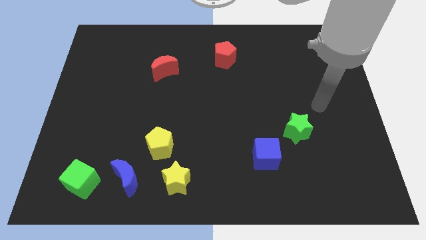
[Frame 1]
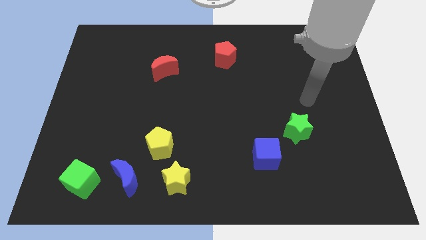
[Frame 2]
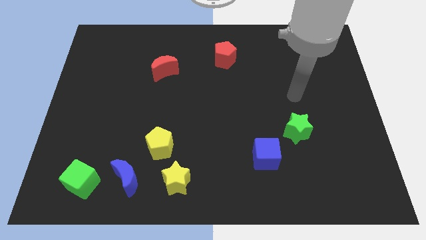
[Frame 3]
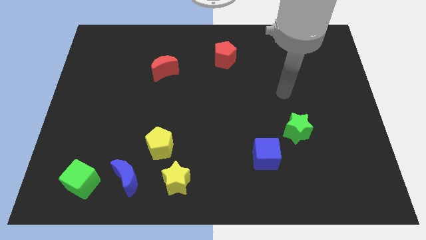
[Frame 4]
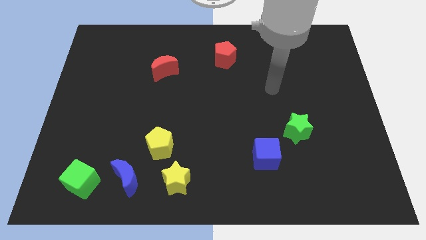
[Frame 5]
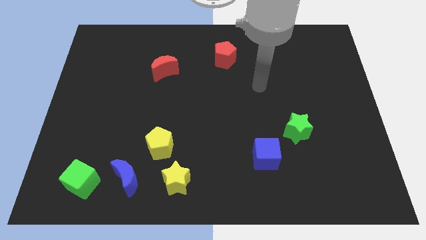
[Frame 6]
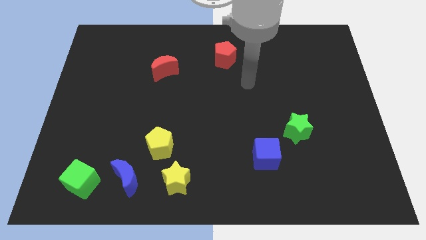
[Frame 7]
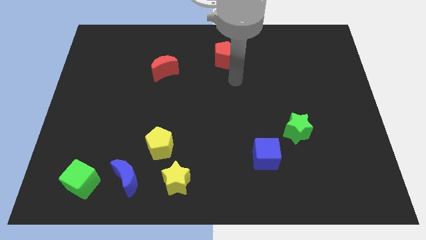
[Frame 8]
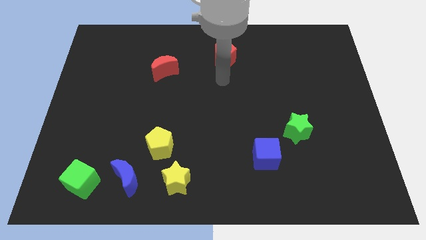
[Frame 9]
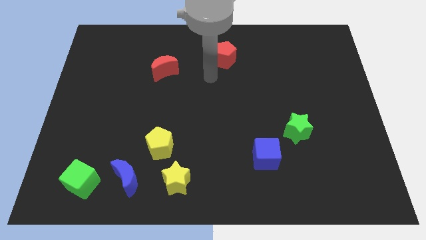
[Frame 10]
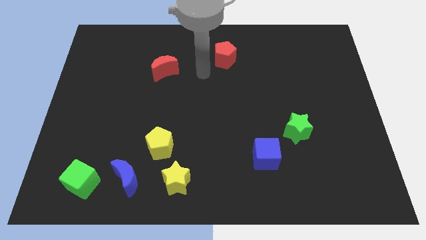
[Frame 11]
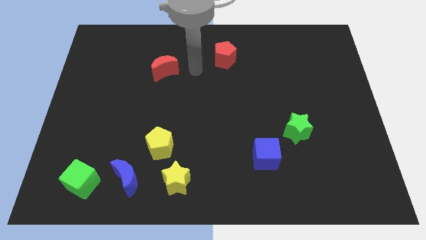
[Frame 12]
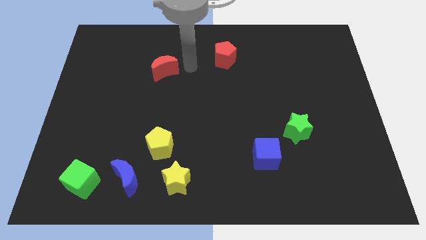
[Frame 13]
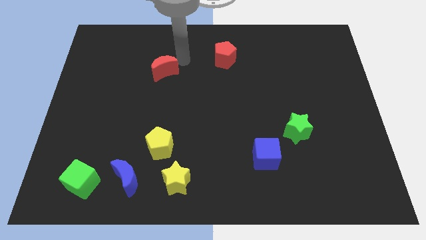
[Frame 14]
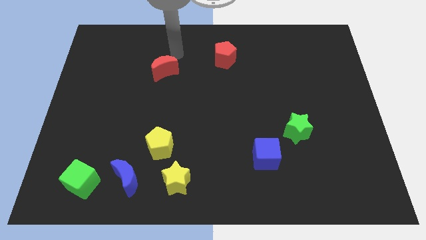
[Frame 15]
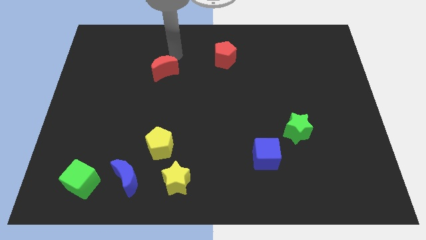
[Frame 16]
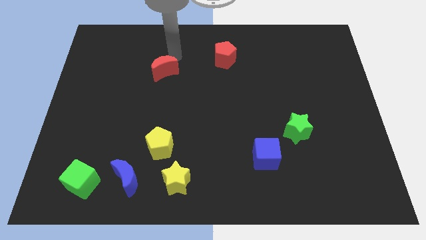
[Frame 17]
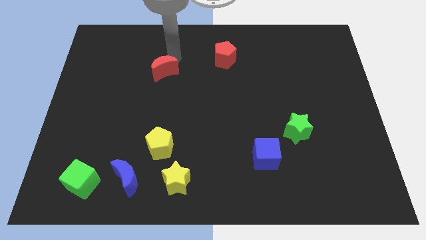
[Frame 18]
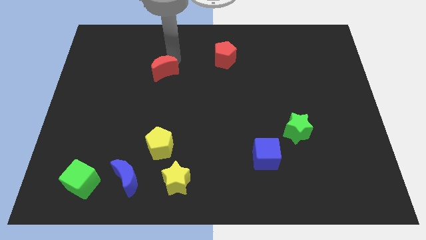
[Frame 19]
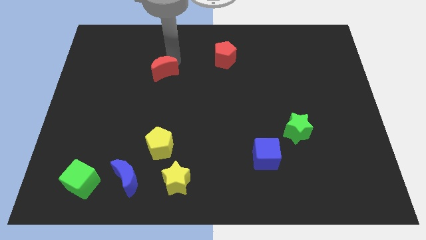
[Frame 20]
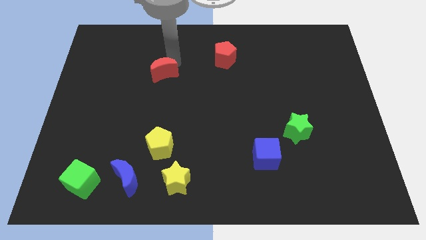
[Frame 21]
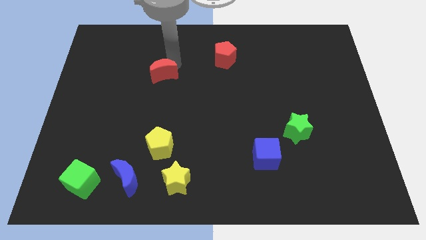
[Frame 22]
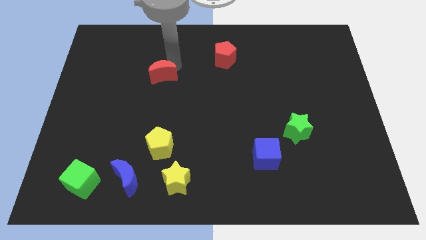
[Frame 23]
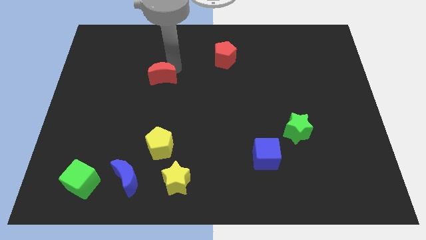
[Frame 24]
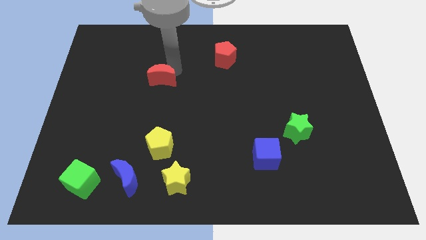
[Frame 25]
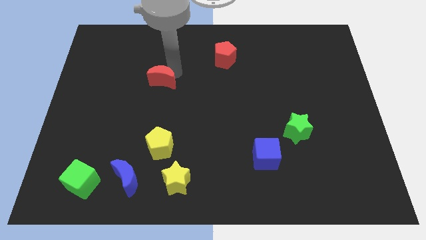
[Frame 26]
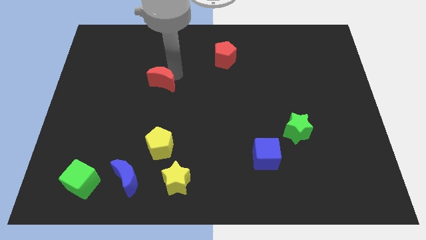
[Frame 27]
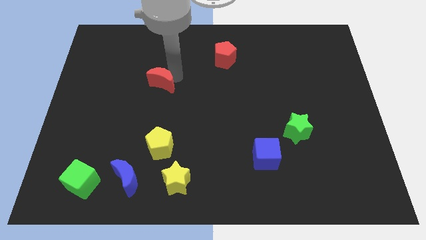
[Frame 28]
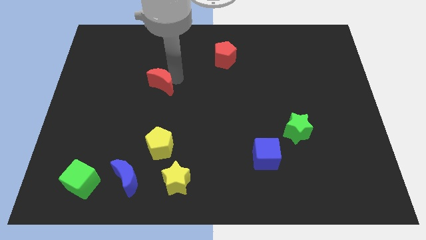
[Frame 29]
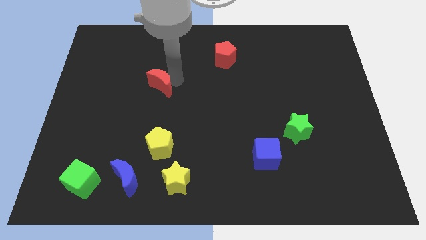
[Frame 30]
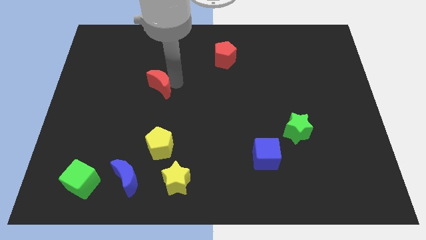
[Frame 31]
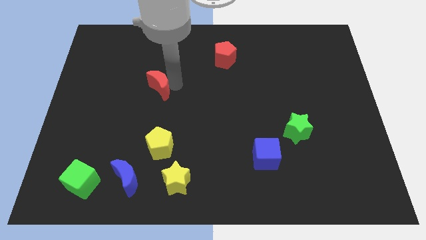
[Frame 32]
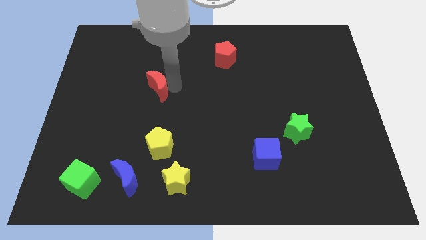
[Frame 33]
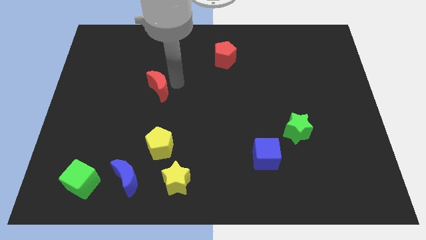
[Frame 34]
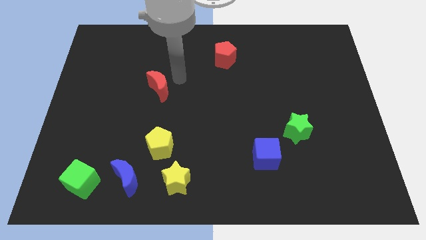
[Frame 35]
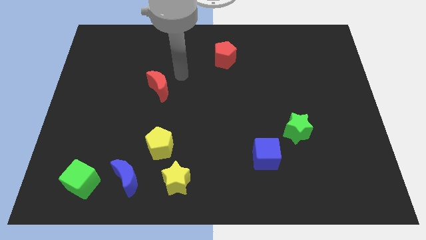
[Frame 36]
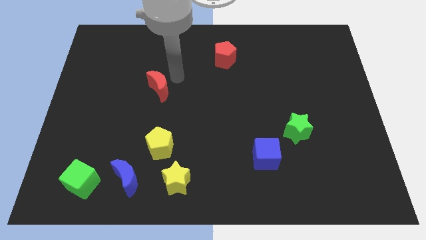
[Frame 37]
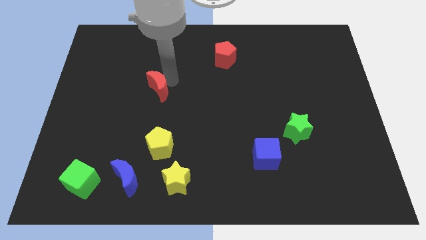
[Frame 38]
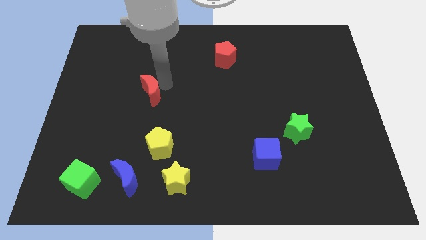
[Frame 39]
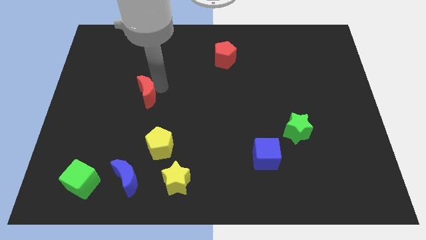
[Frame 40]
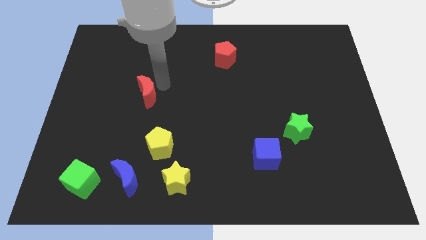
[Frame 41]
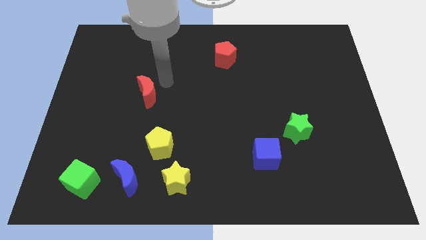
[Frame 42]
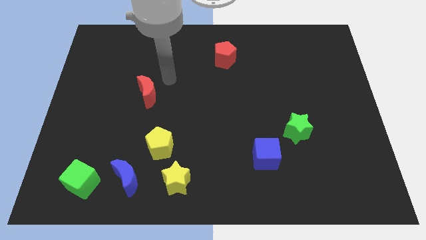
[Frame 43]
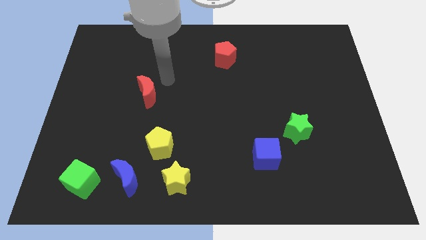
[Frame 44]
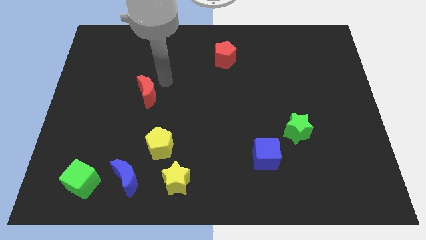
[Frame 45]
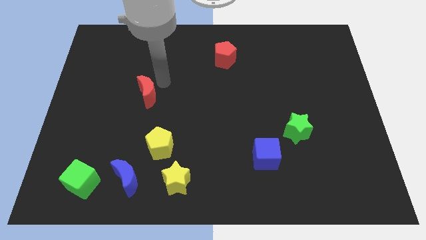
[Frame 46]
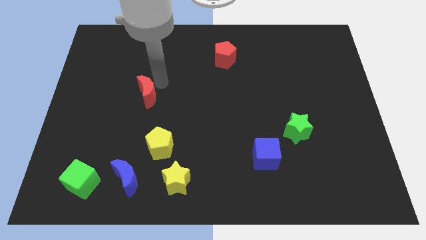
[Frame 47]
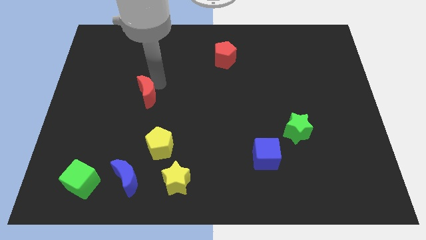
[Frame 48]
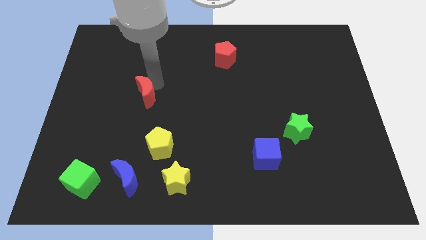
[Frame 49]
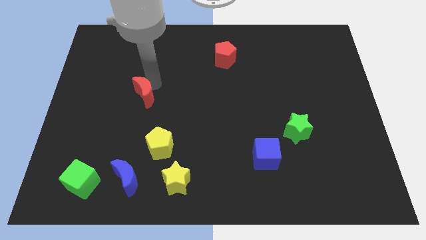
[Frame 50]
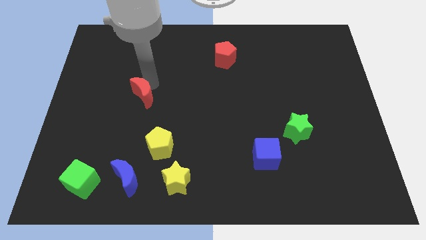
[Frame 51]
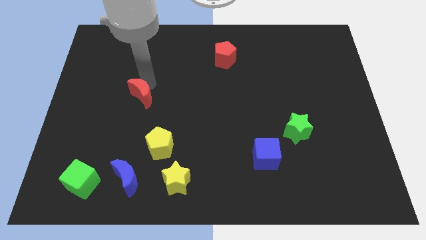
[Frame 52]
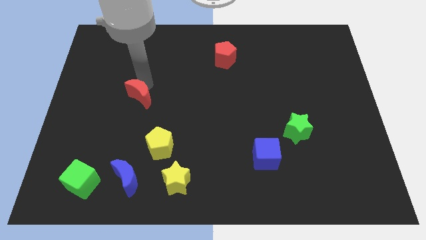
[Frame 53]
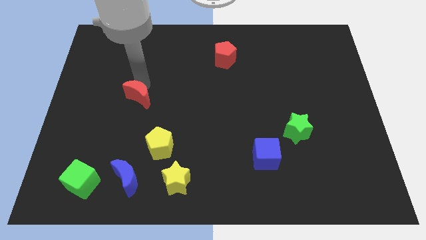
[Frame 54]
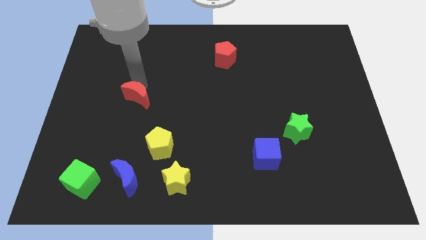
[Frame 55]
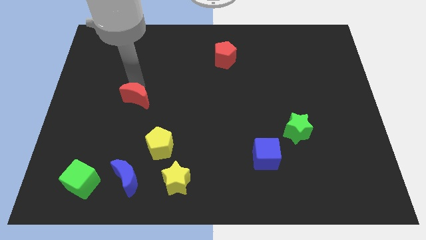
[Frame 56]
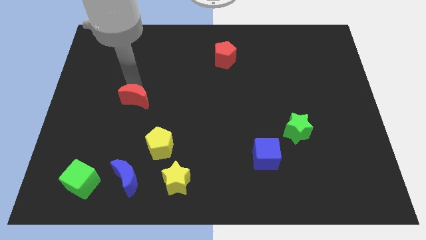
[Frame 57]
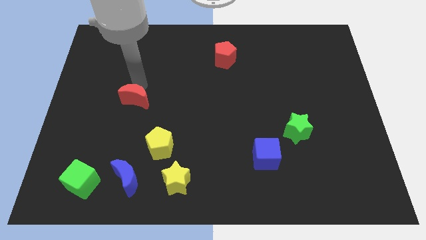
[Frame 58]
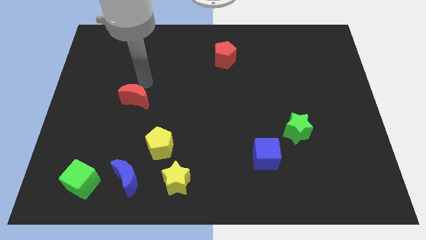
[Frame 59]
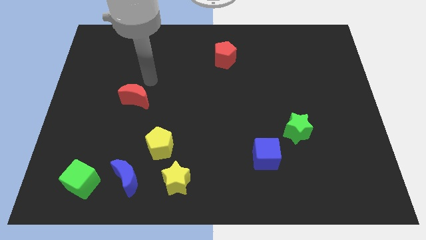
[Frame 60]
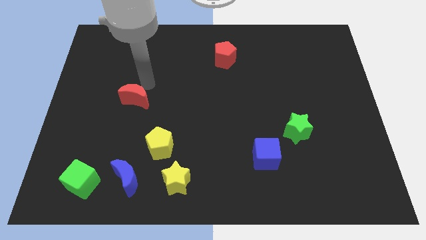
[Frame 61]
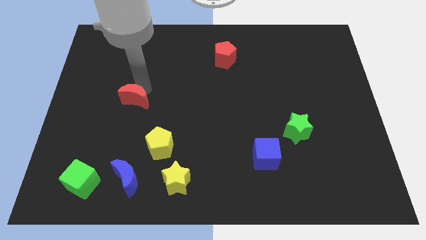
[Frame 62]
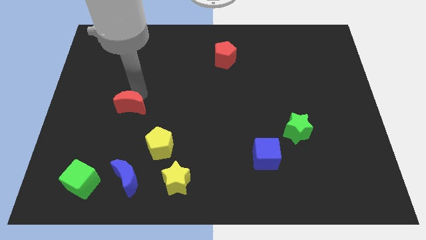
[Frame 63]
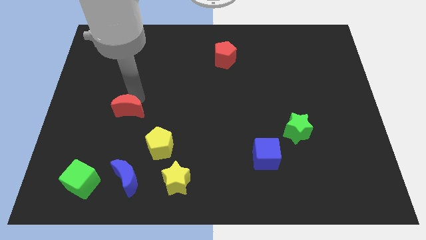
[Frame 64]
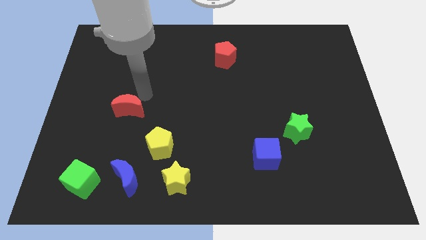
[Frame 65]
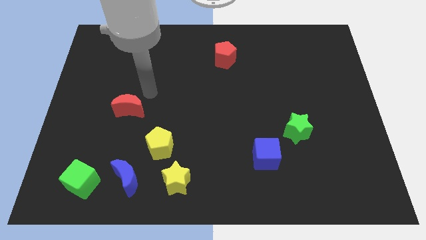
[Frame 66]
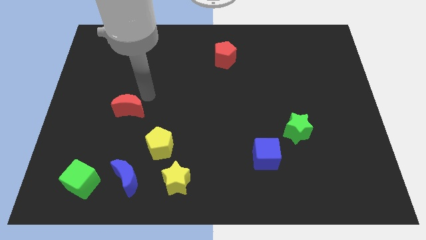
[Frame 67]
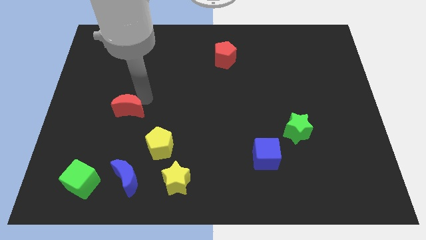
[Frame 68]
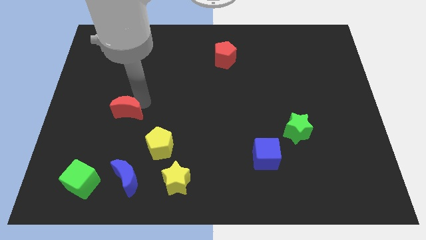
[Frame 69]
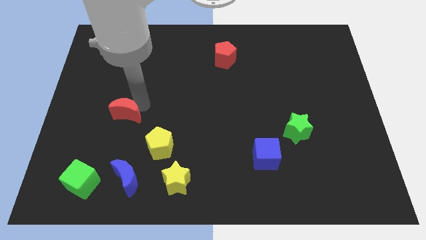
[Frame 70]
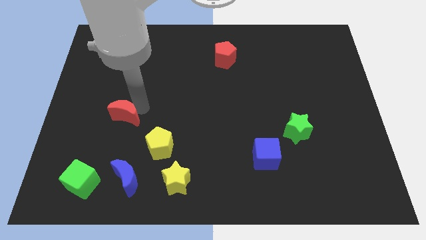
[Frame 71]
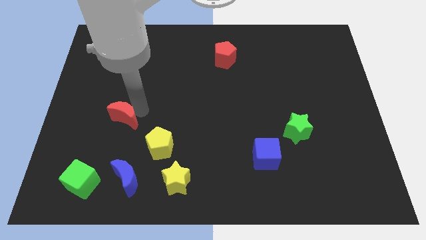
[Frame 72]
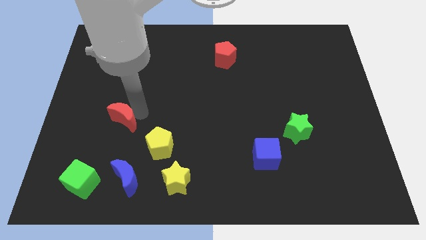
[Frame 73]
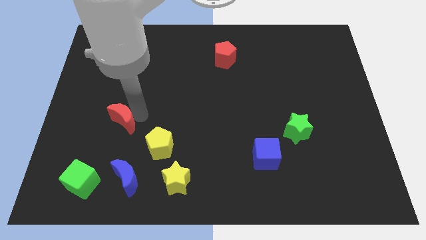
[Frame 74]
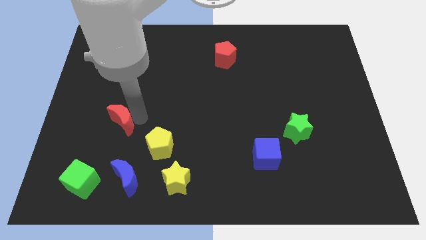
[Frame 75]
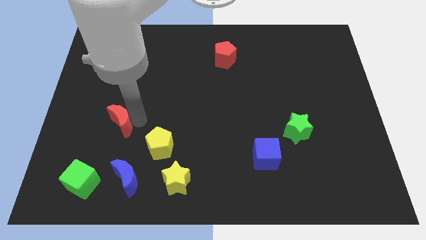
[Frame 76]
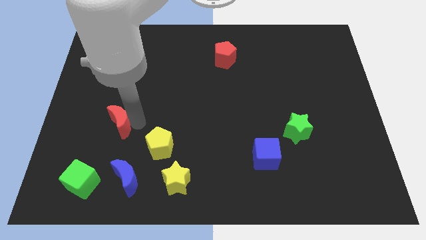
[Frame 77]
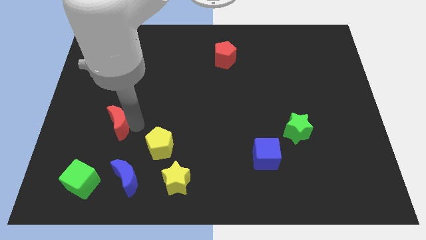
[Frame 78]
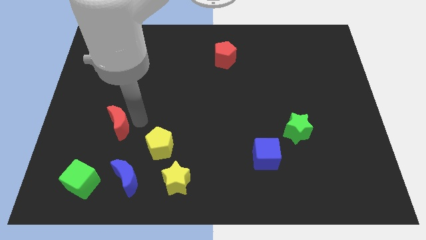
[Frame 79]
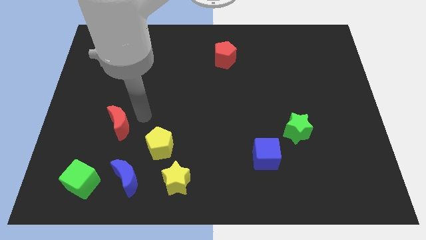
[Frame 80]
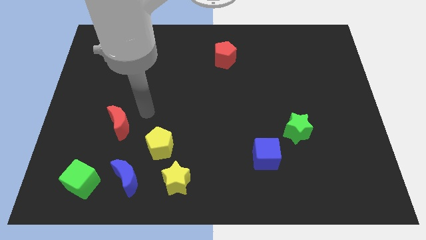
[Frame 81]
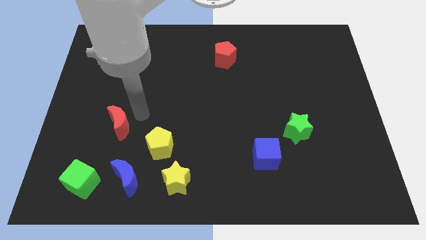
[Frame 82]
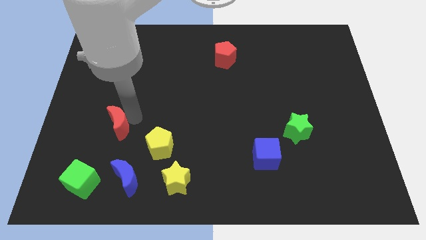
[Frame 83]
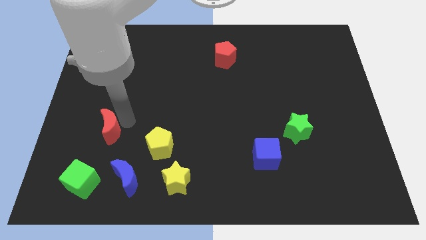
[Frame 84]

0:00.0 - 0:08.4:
put the red moon to the top of the green cube
